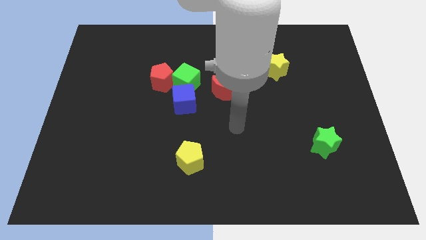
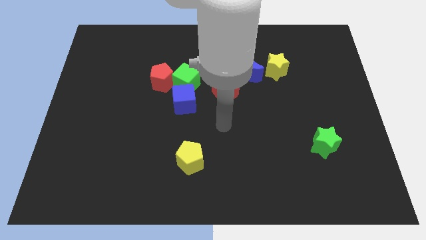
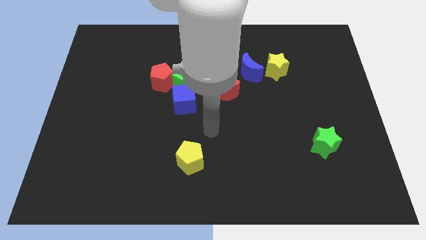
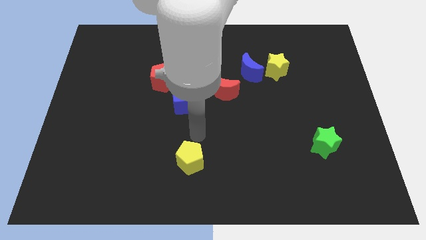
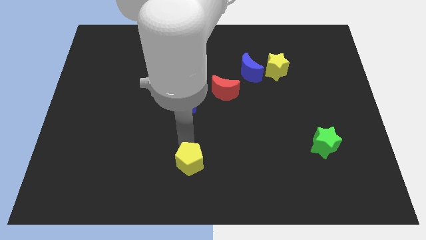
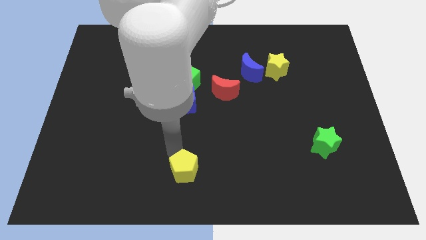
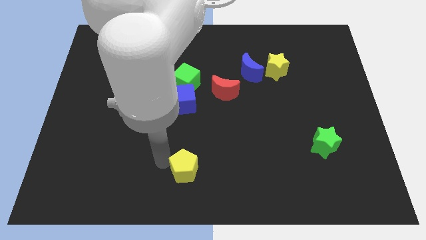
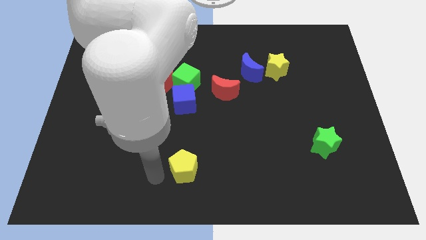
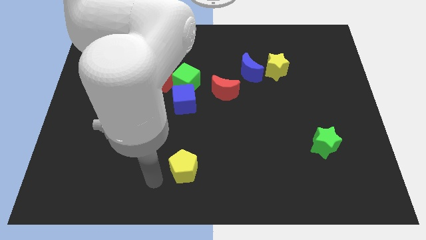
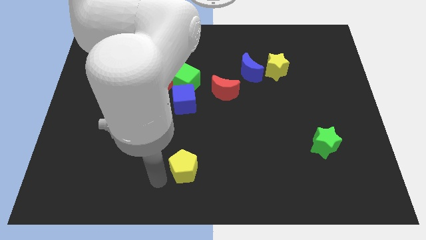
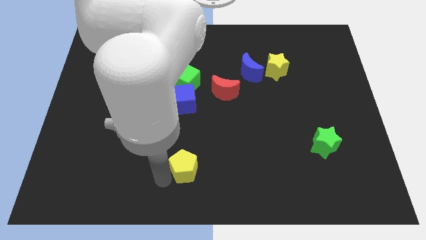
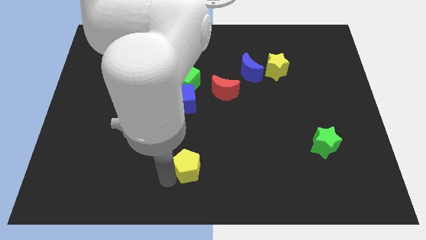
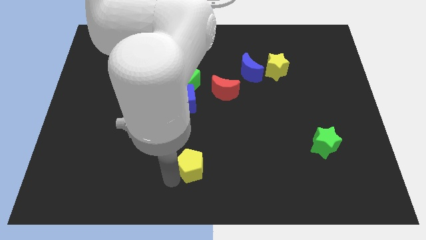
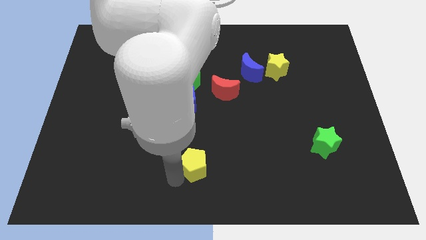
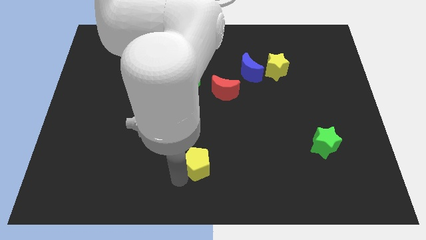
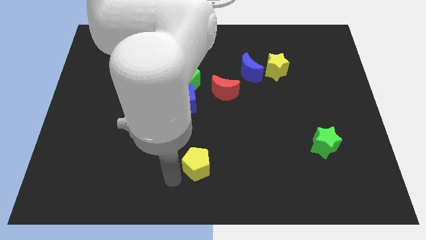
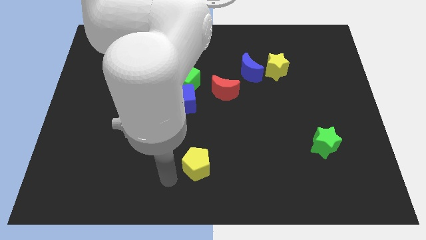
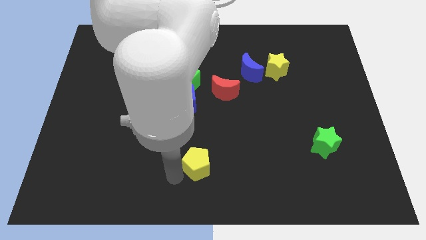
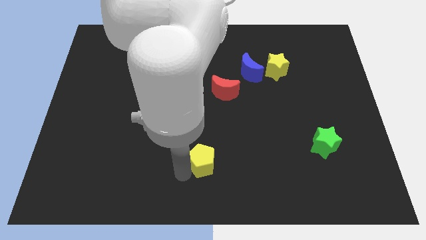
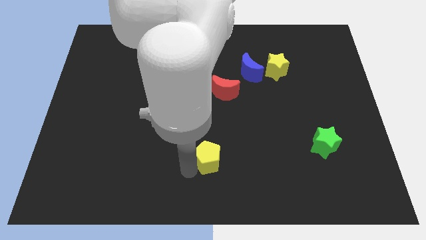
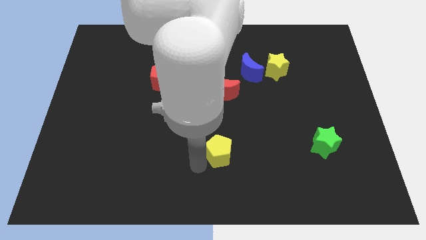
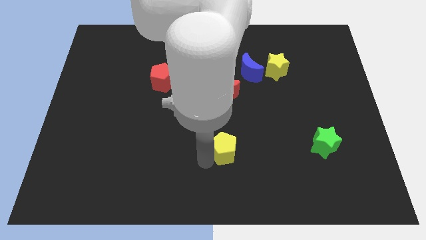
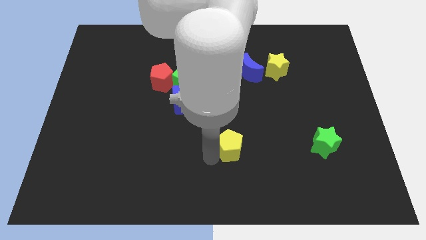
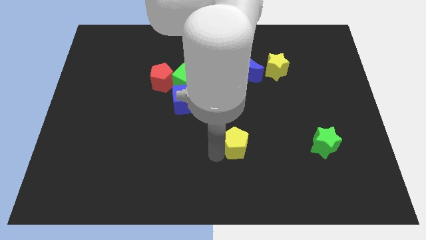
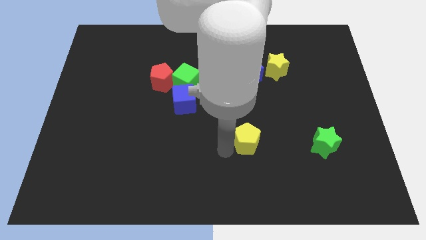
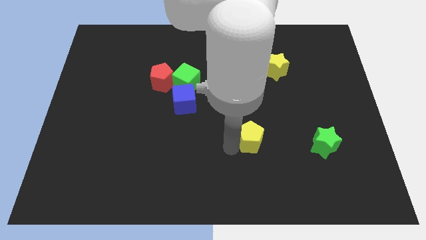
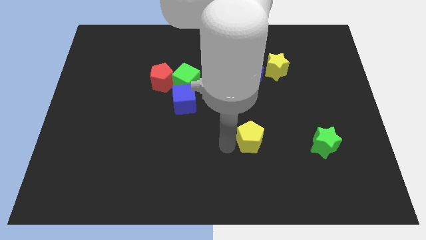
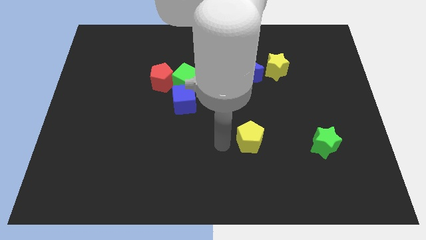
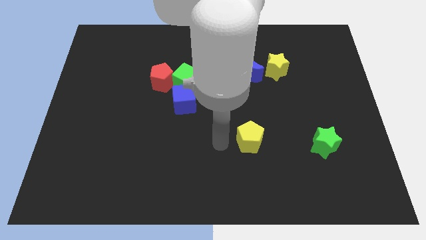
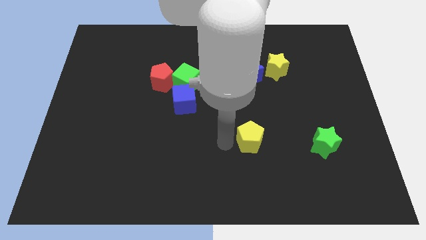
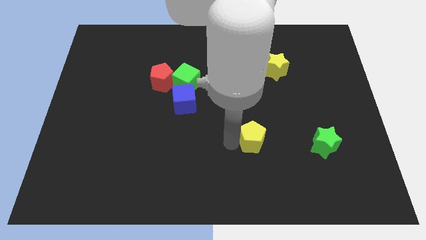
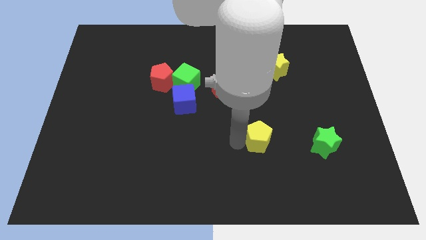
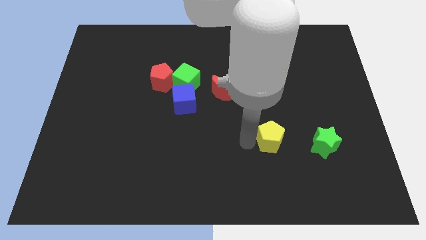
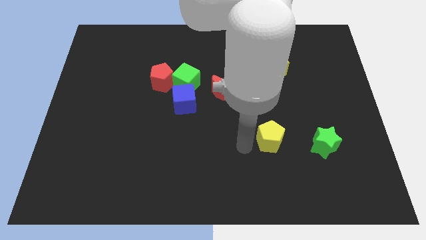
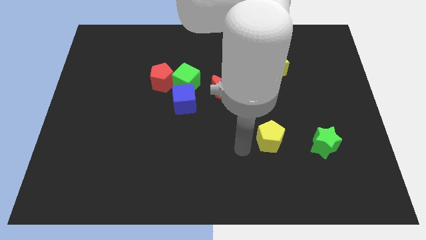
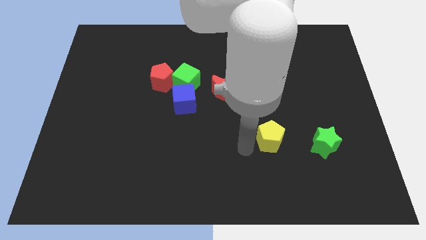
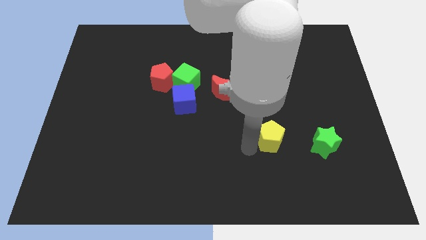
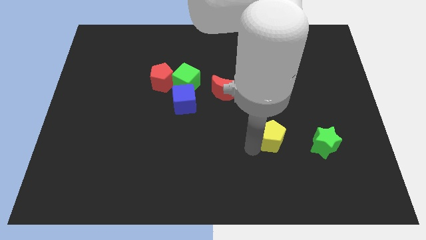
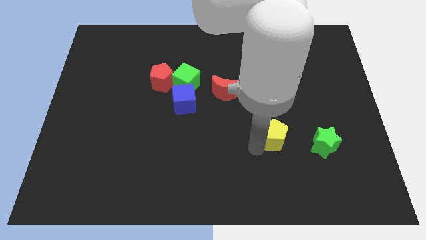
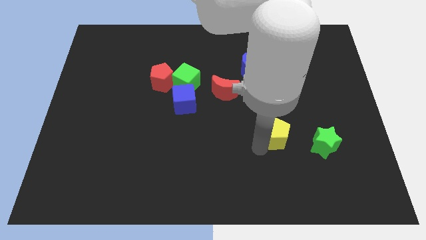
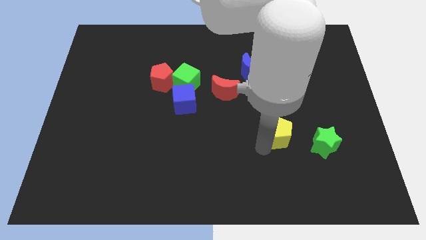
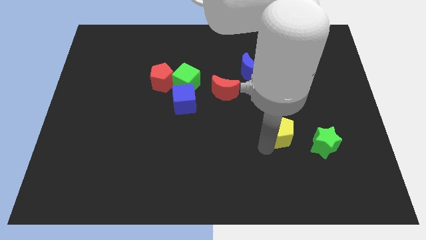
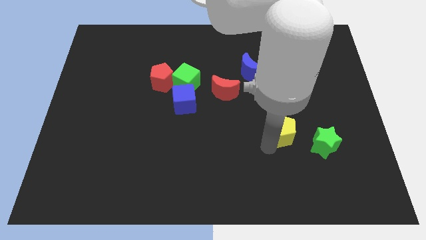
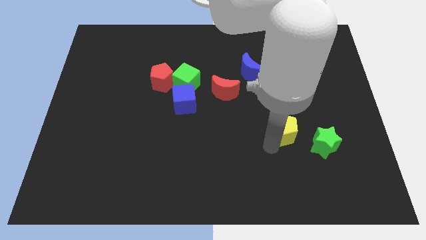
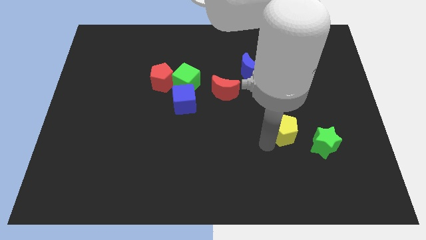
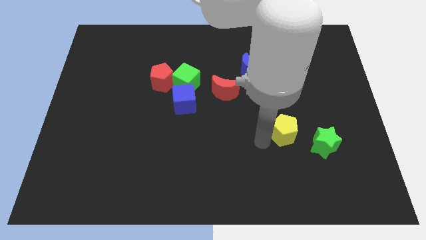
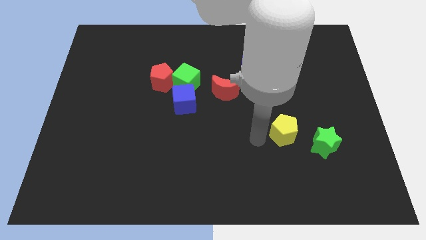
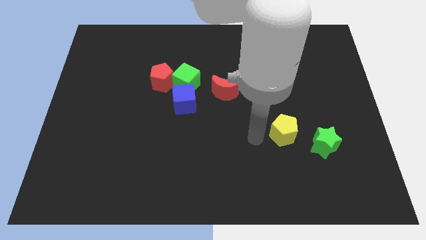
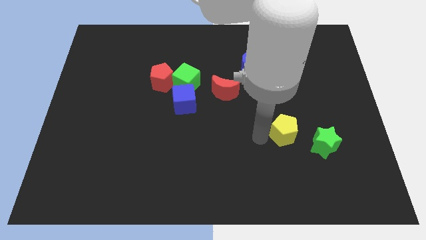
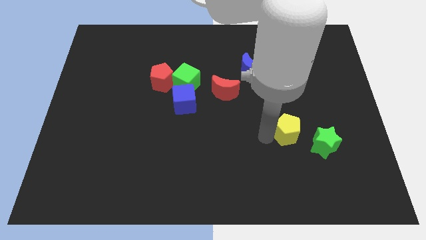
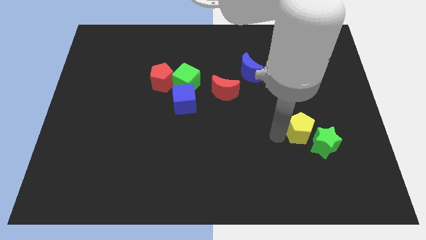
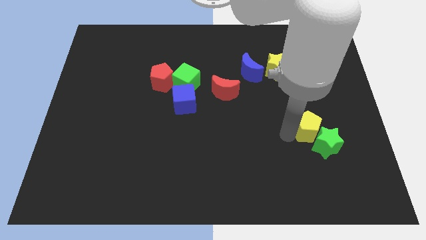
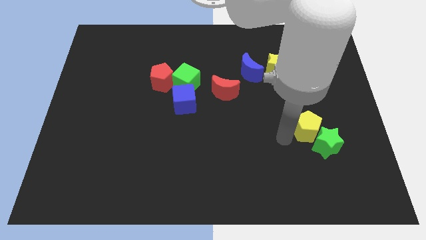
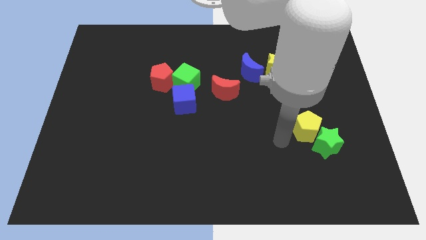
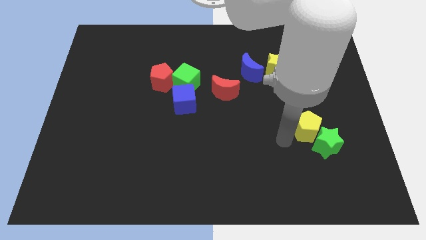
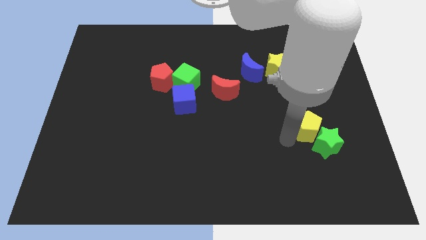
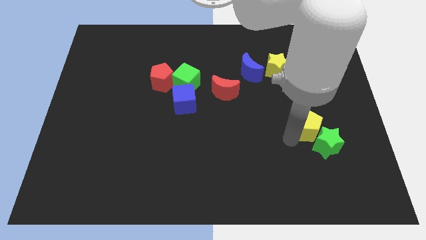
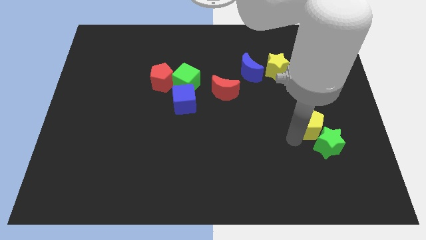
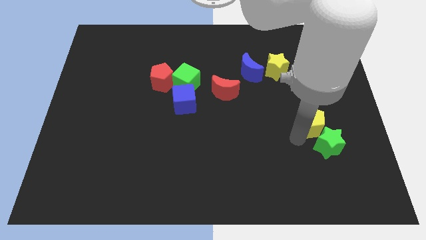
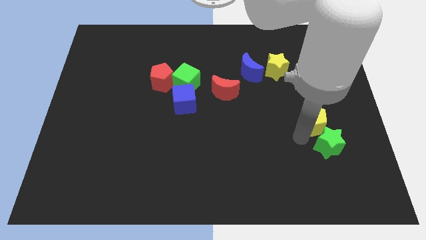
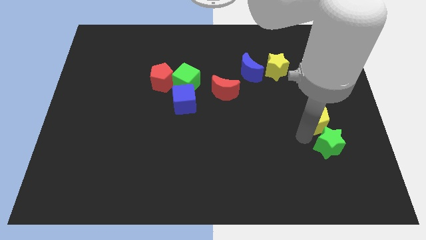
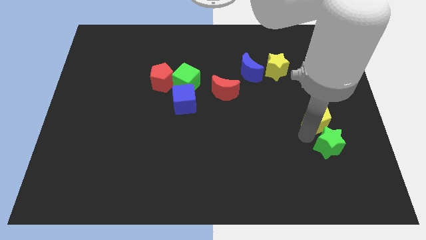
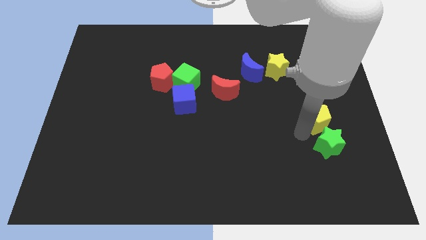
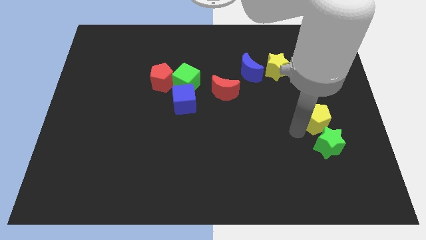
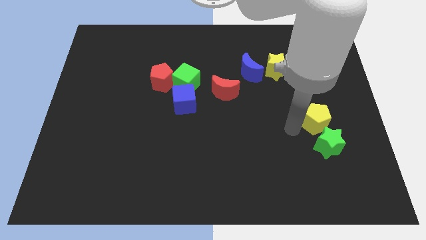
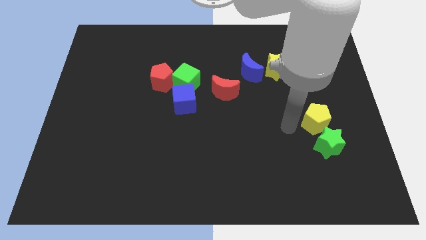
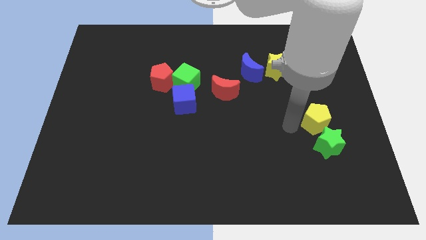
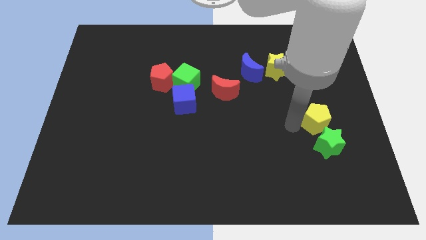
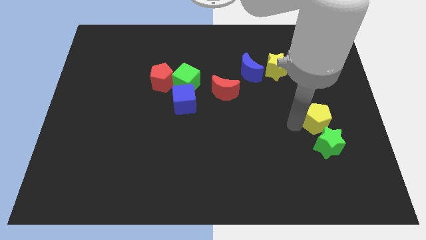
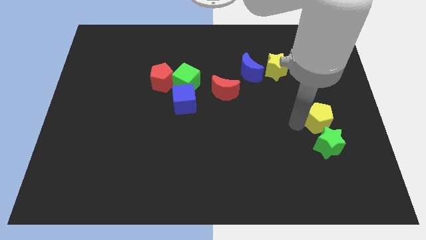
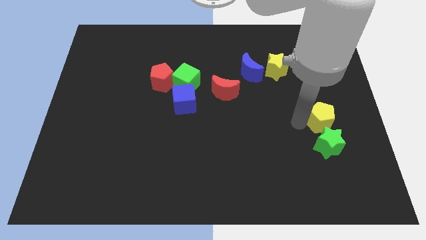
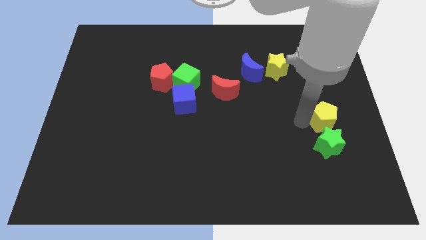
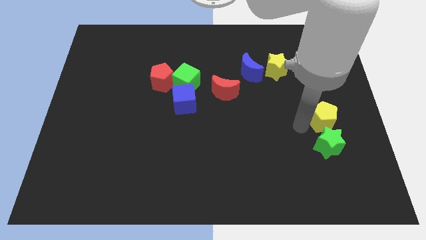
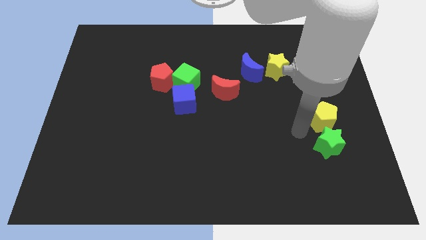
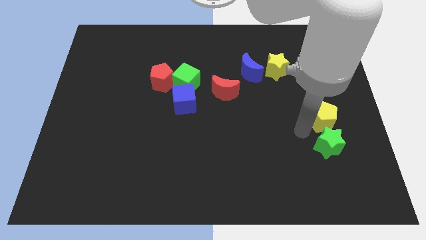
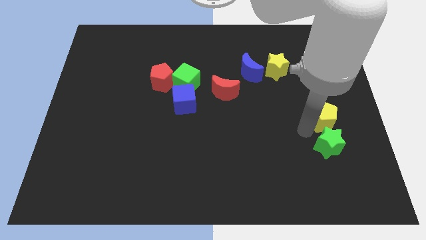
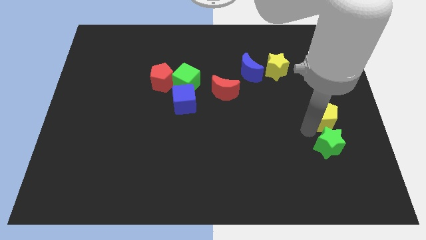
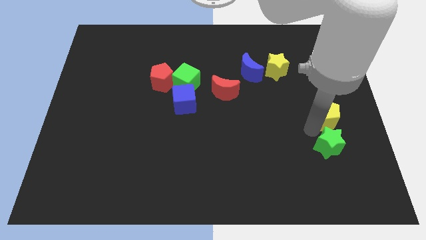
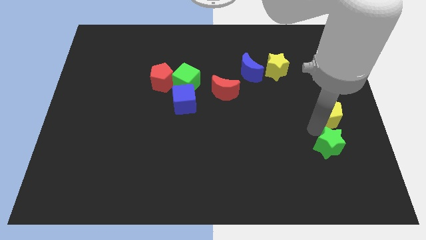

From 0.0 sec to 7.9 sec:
slide the yellow pentagon to the right side of the board
